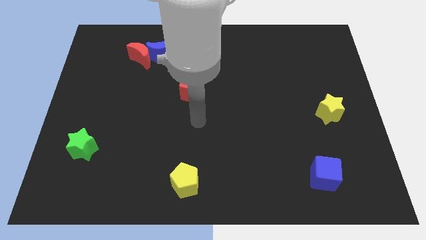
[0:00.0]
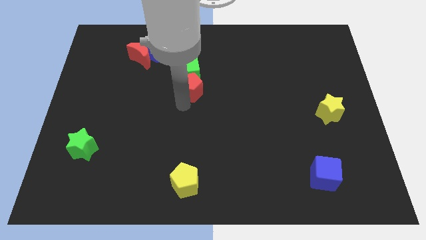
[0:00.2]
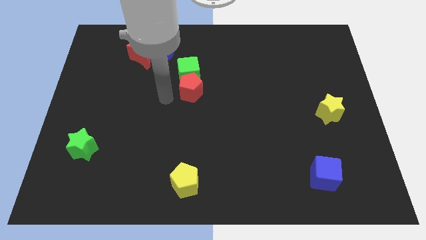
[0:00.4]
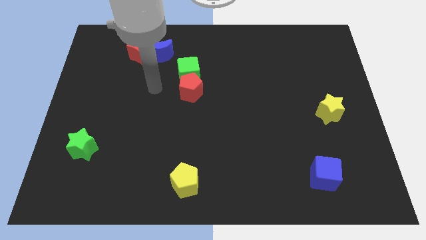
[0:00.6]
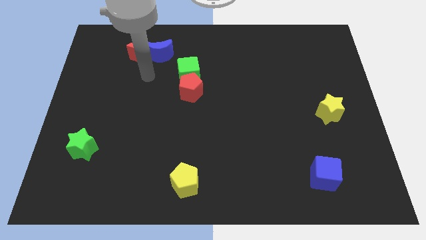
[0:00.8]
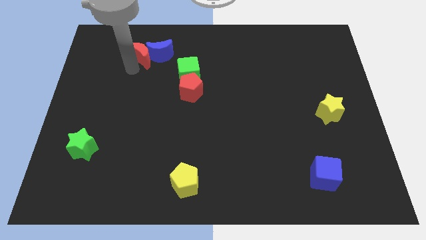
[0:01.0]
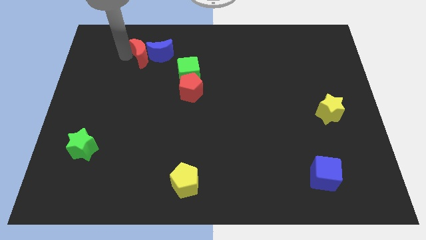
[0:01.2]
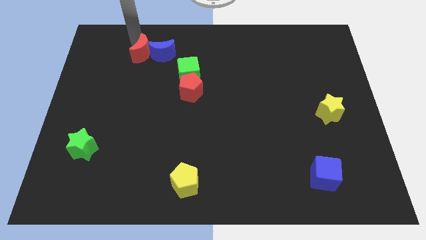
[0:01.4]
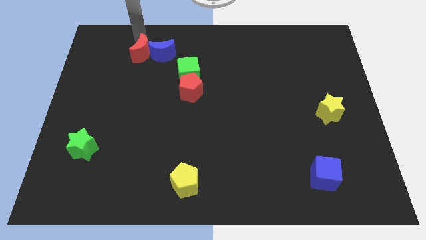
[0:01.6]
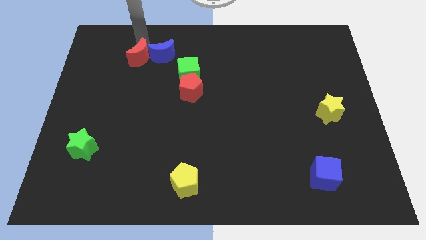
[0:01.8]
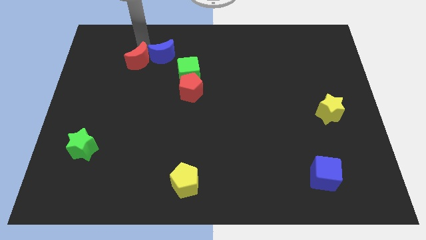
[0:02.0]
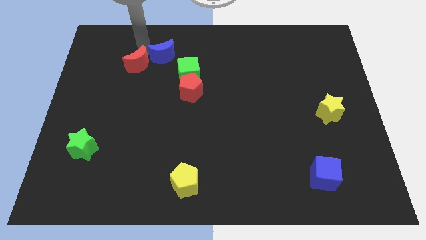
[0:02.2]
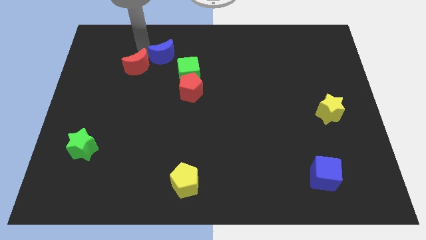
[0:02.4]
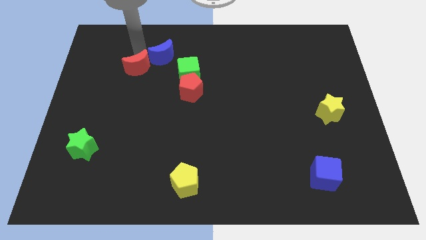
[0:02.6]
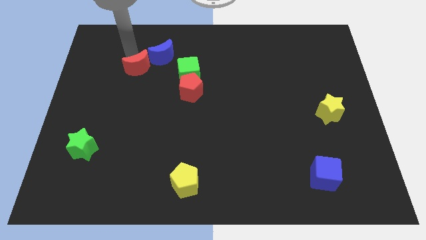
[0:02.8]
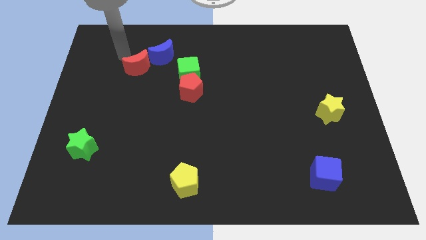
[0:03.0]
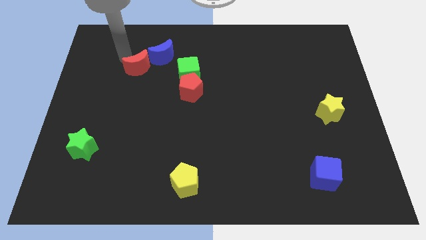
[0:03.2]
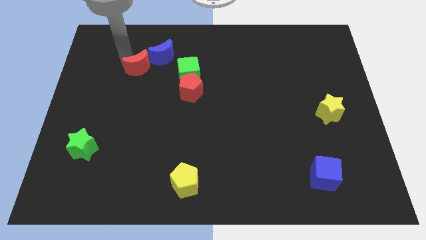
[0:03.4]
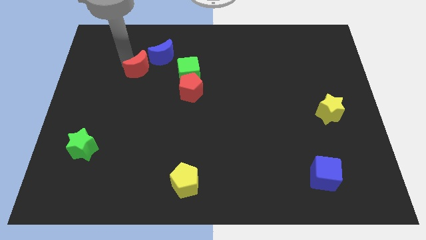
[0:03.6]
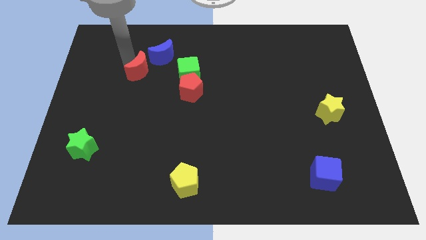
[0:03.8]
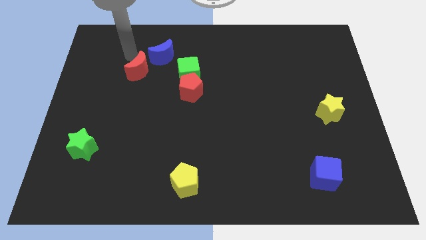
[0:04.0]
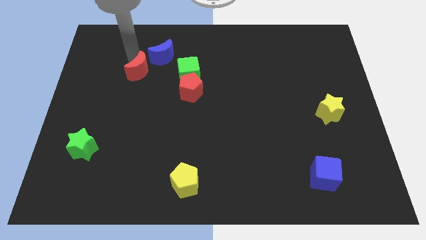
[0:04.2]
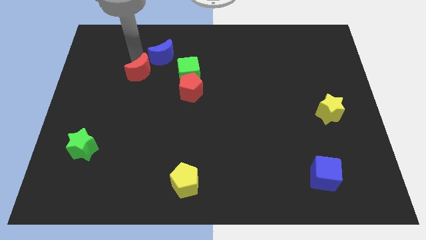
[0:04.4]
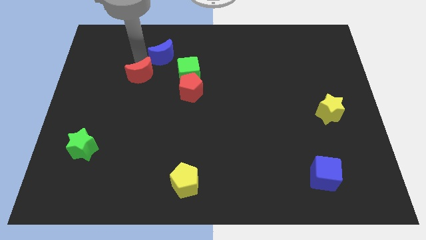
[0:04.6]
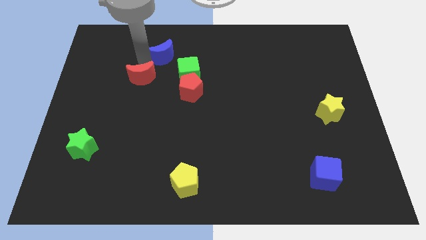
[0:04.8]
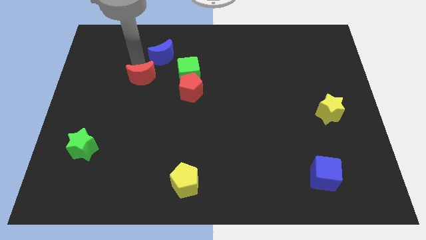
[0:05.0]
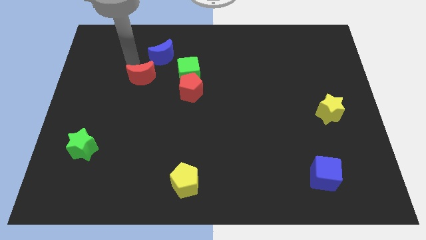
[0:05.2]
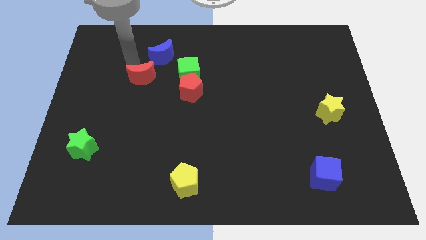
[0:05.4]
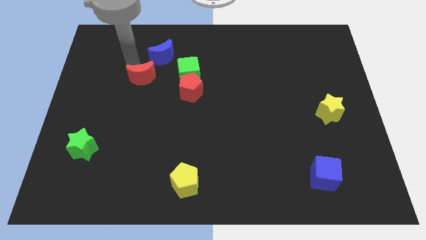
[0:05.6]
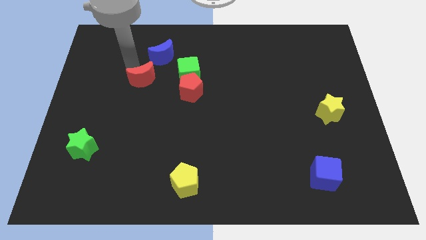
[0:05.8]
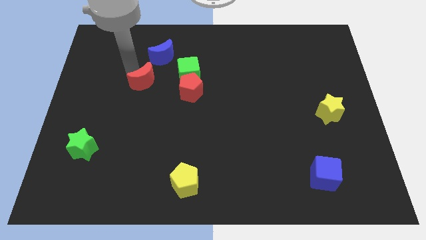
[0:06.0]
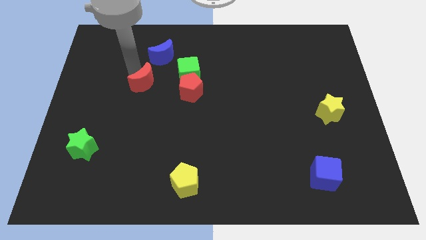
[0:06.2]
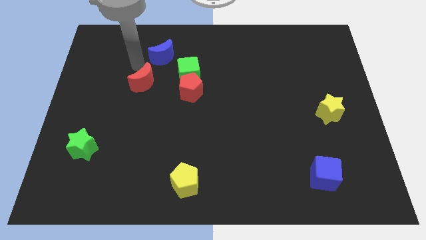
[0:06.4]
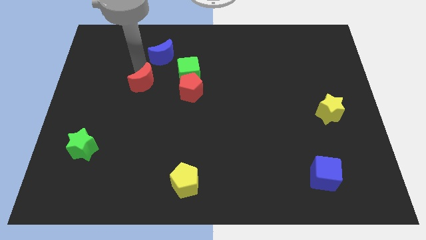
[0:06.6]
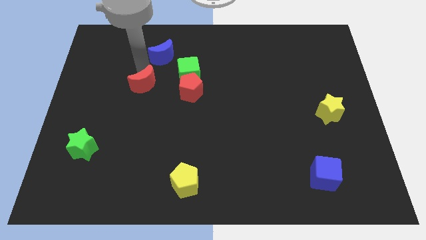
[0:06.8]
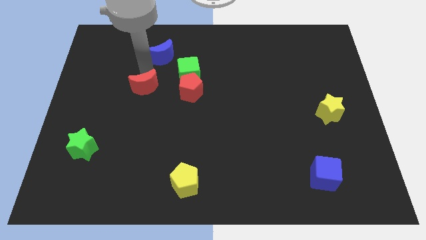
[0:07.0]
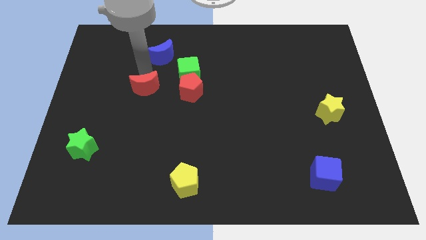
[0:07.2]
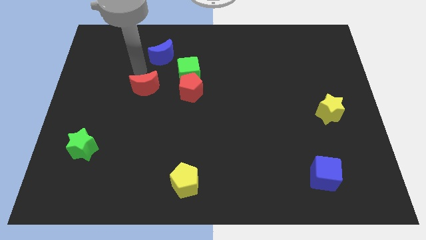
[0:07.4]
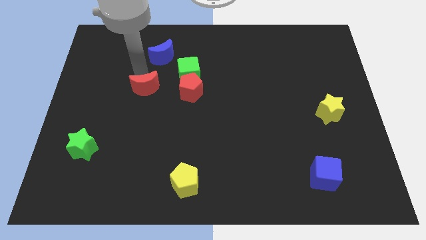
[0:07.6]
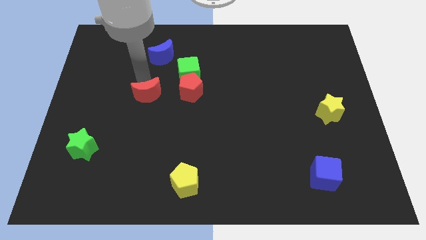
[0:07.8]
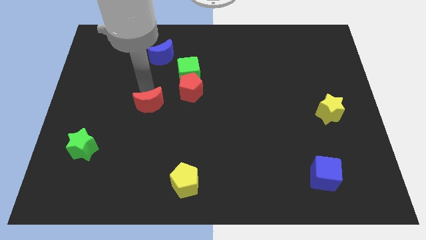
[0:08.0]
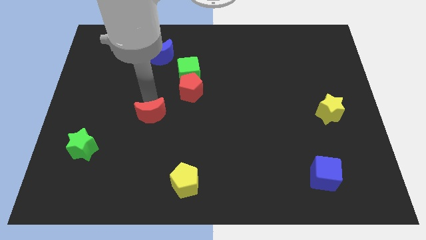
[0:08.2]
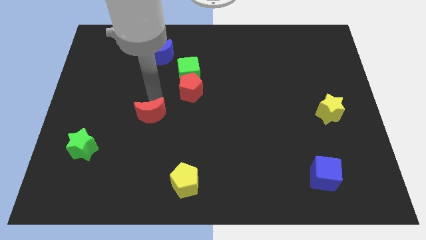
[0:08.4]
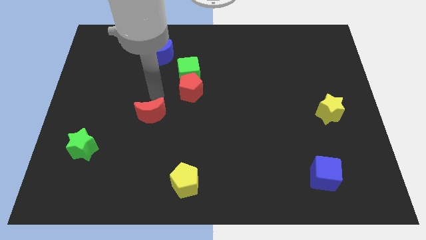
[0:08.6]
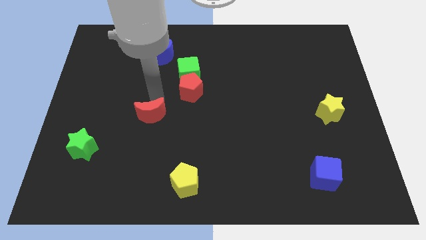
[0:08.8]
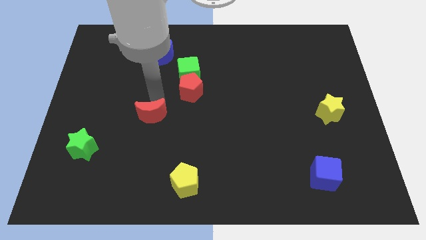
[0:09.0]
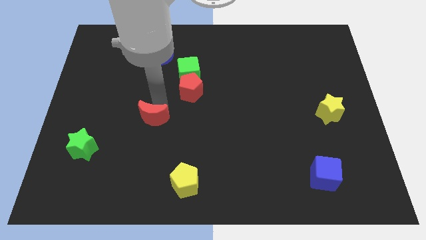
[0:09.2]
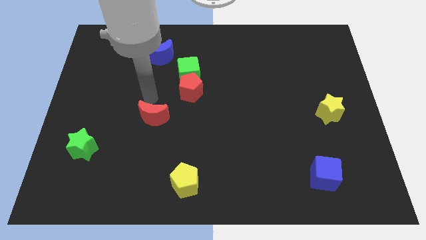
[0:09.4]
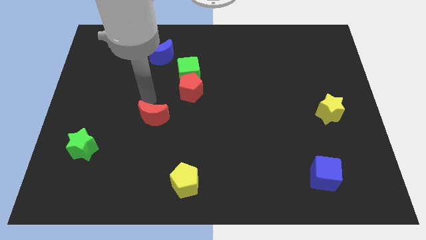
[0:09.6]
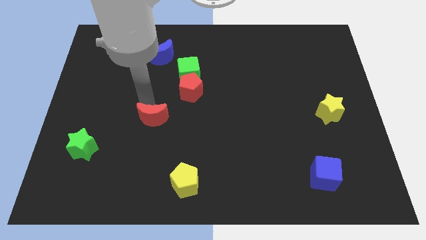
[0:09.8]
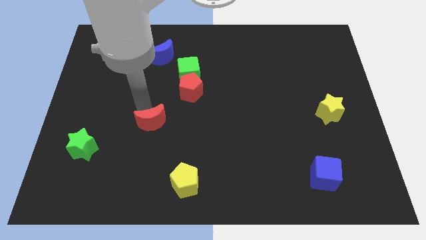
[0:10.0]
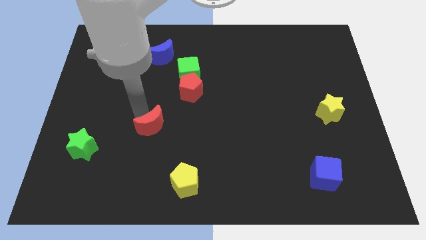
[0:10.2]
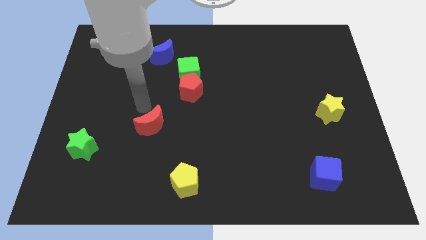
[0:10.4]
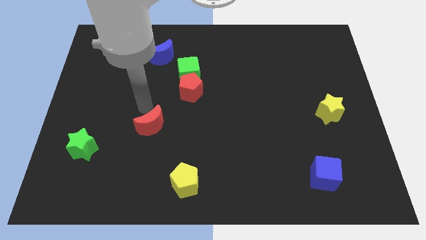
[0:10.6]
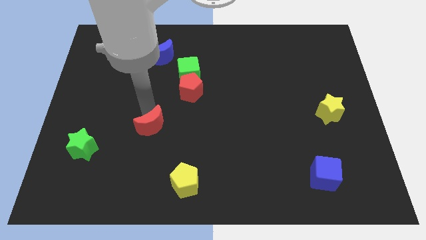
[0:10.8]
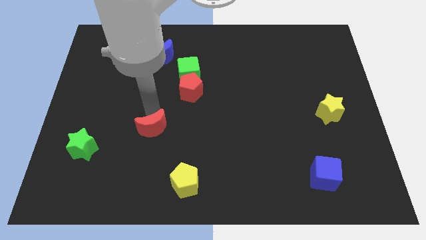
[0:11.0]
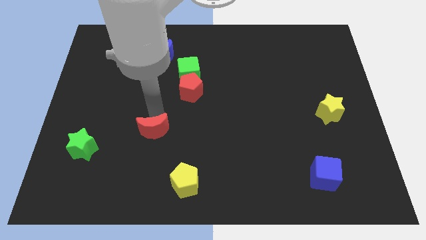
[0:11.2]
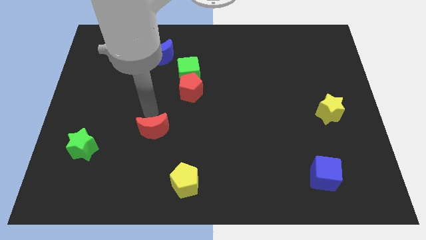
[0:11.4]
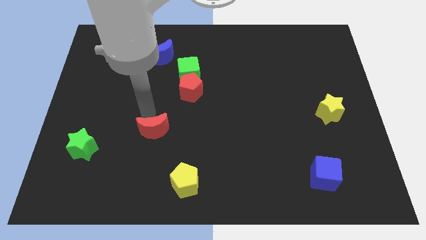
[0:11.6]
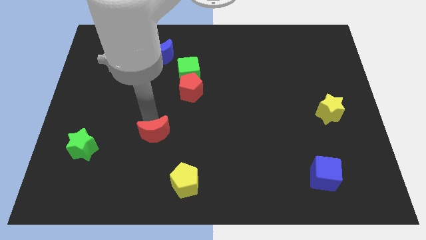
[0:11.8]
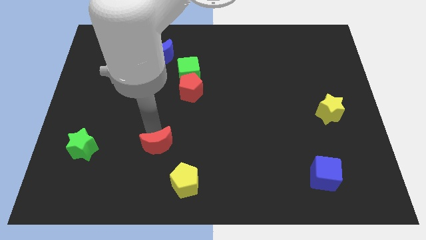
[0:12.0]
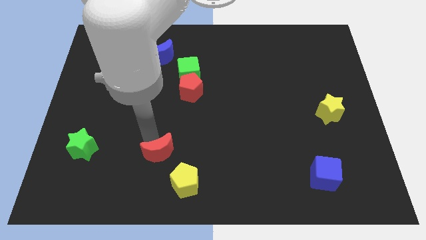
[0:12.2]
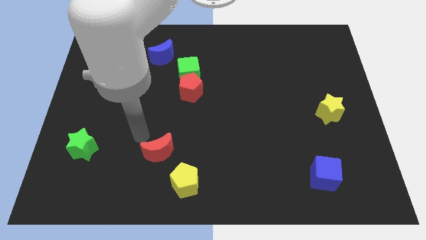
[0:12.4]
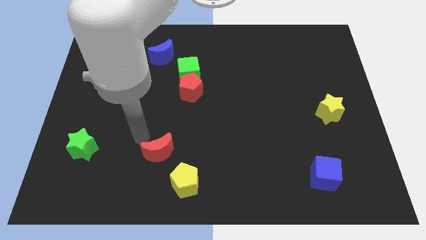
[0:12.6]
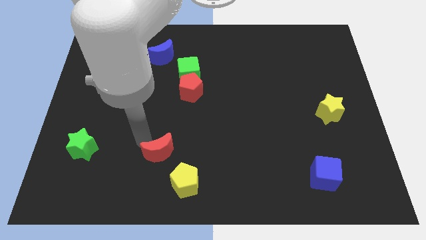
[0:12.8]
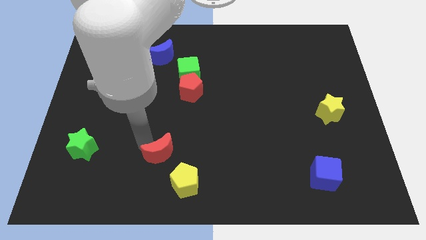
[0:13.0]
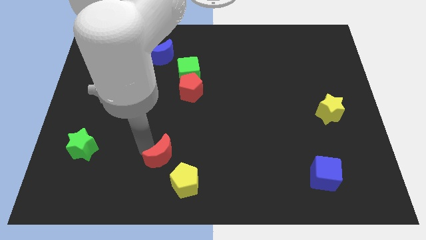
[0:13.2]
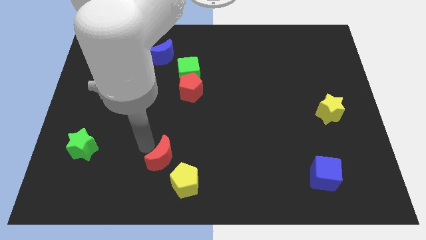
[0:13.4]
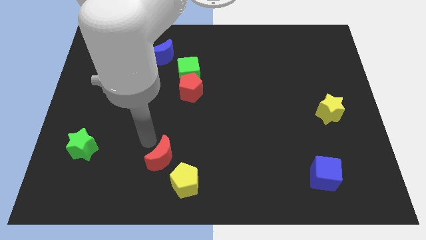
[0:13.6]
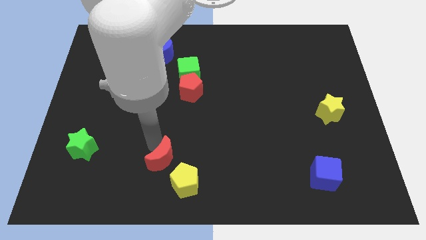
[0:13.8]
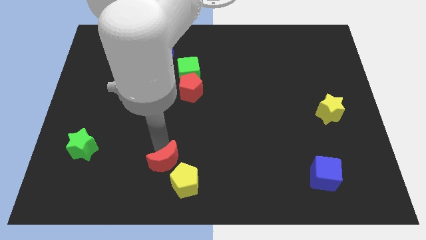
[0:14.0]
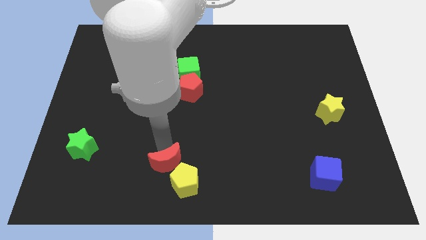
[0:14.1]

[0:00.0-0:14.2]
slide the red moon next to the yellow pentagon

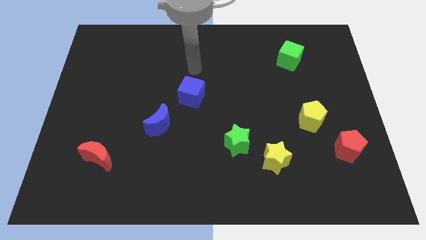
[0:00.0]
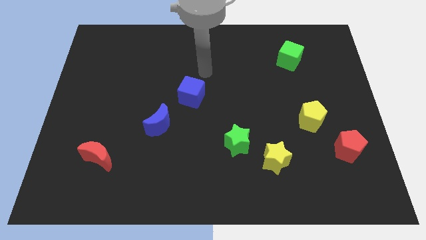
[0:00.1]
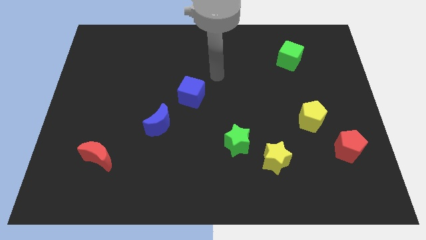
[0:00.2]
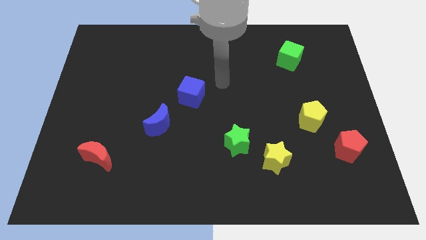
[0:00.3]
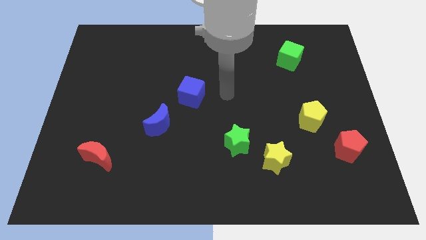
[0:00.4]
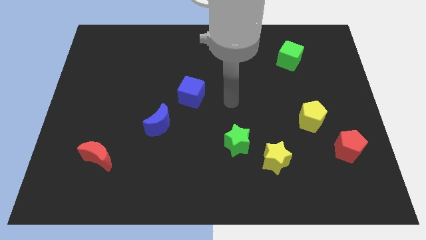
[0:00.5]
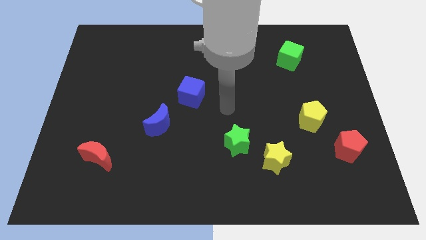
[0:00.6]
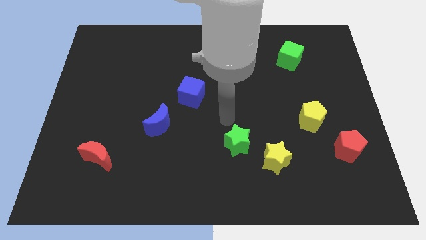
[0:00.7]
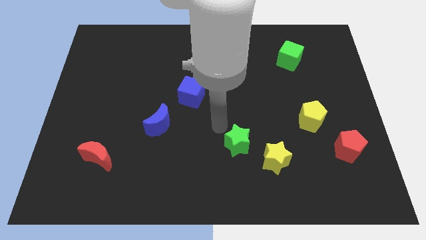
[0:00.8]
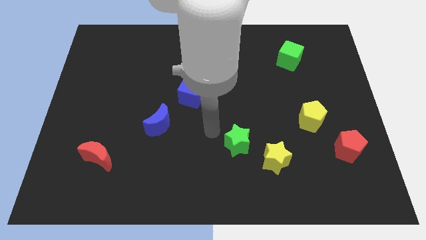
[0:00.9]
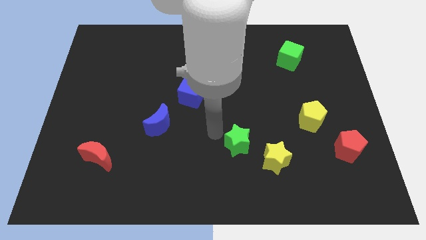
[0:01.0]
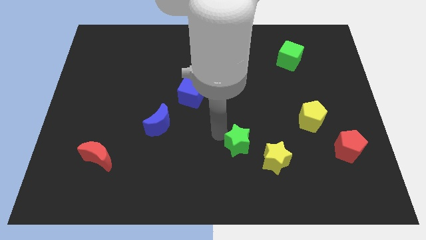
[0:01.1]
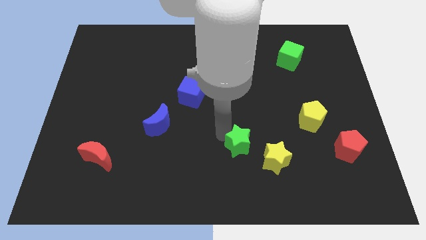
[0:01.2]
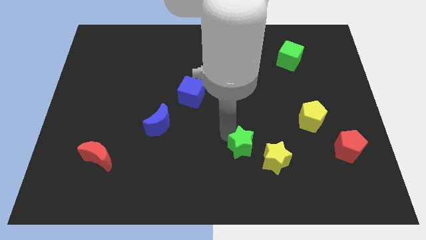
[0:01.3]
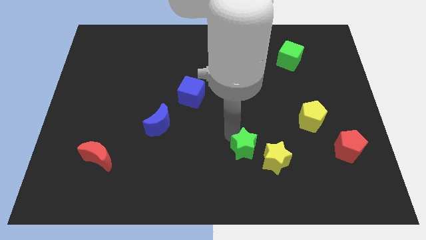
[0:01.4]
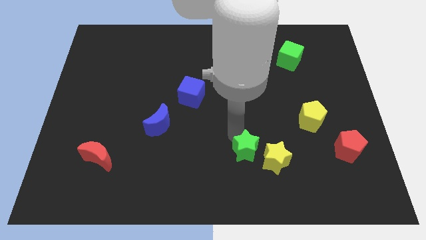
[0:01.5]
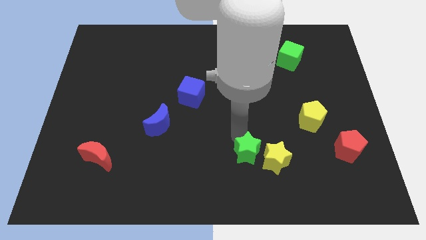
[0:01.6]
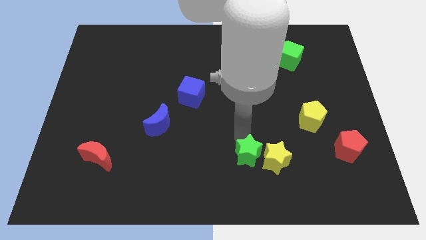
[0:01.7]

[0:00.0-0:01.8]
move the green star next to the yellow star
